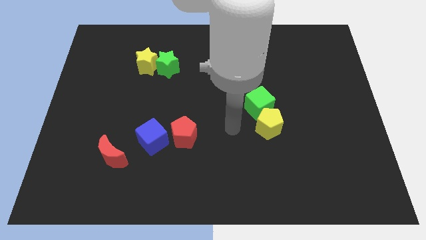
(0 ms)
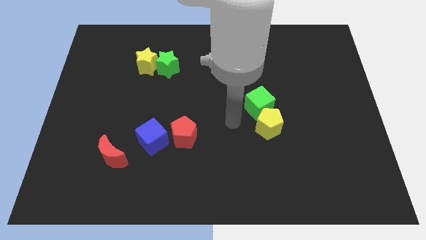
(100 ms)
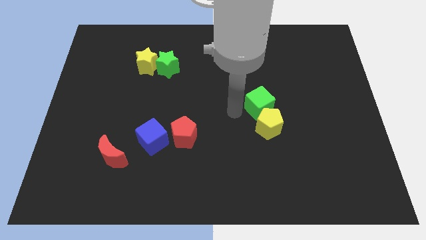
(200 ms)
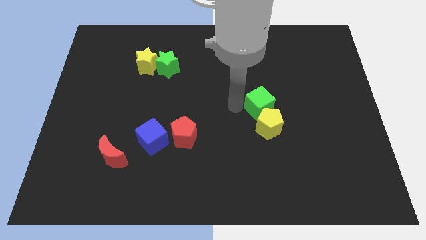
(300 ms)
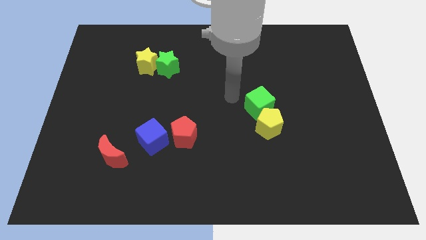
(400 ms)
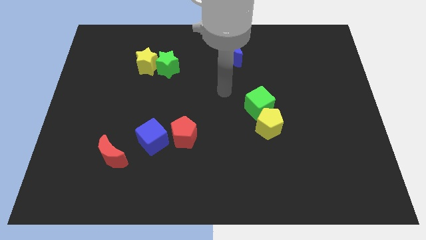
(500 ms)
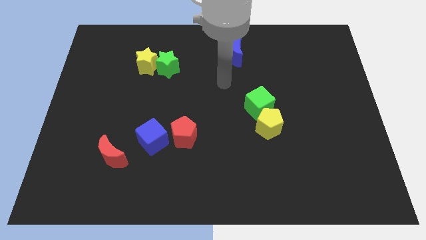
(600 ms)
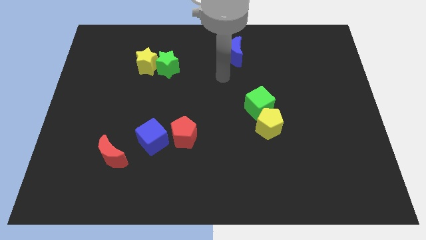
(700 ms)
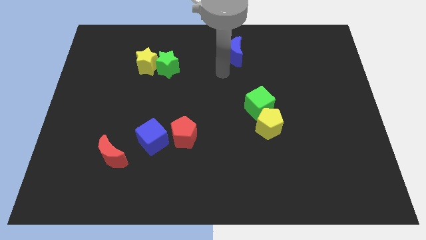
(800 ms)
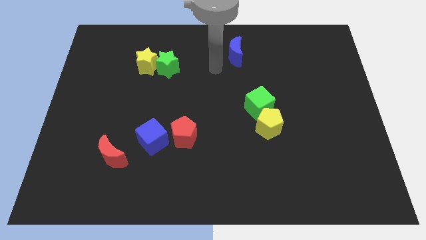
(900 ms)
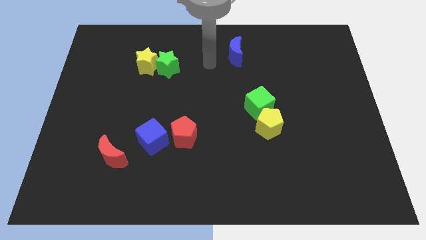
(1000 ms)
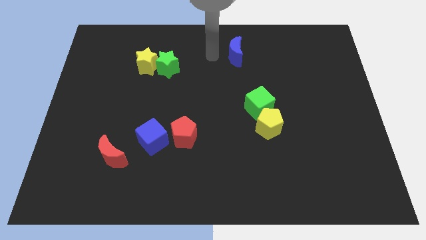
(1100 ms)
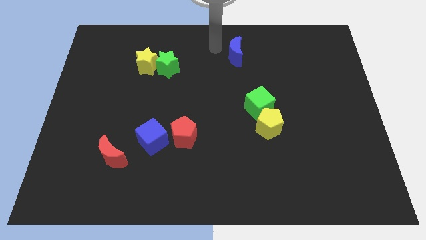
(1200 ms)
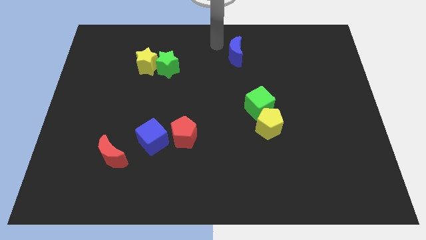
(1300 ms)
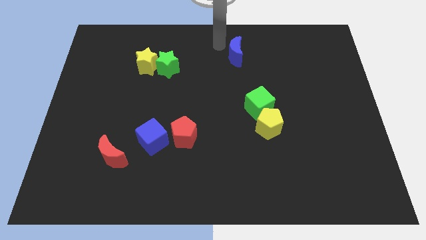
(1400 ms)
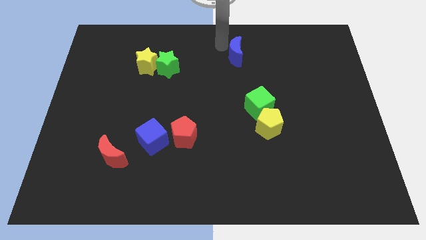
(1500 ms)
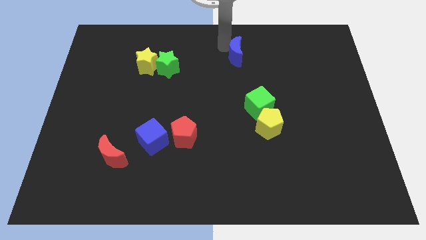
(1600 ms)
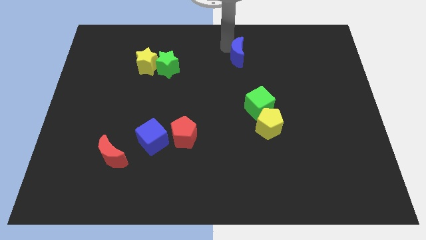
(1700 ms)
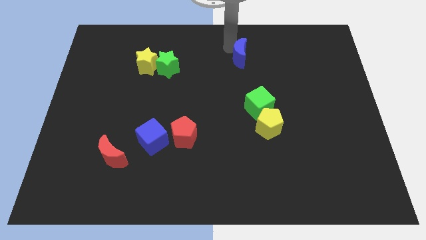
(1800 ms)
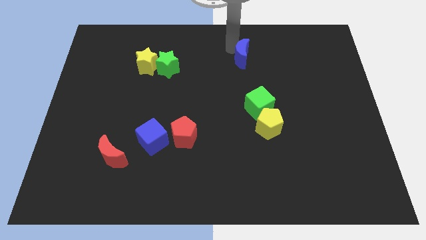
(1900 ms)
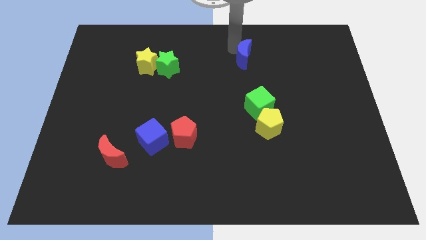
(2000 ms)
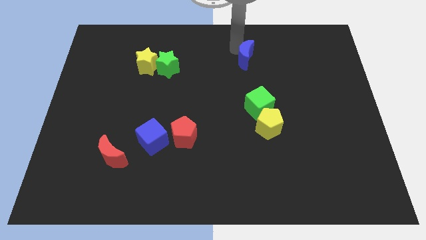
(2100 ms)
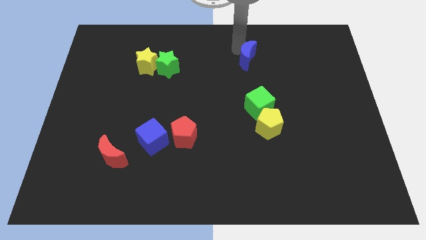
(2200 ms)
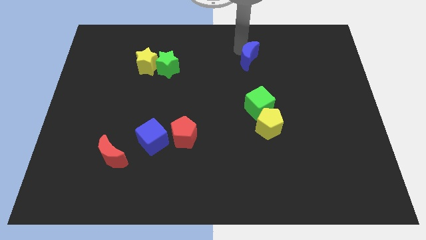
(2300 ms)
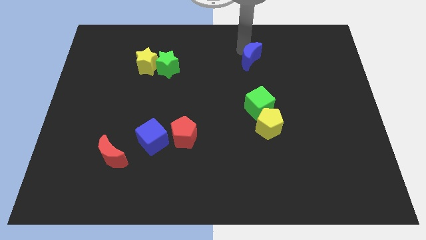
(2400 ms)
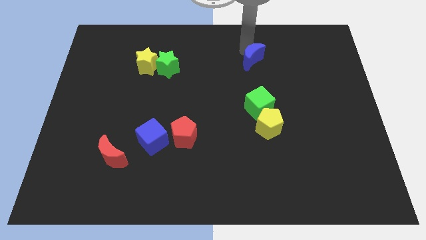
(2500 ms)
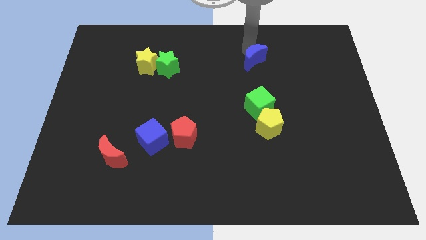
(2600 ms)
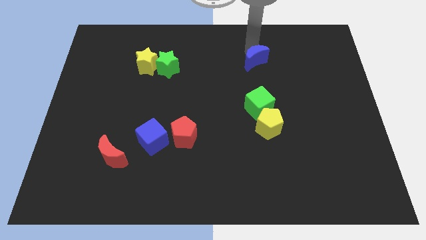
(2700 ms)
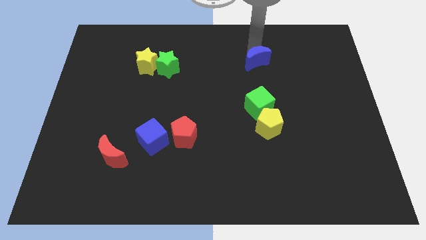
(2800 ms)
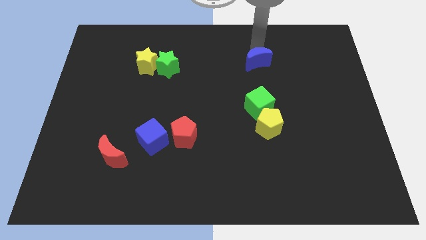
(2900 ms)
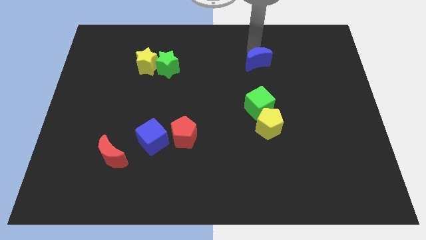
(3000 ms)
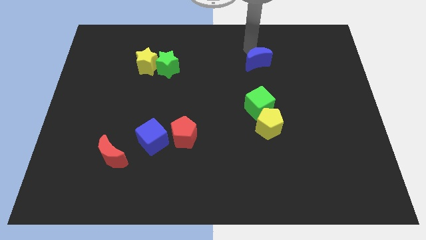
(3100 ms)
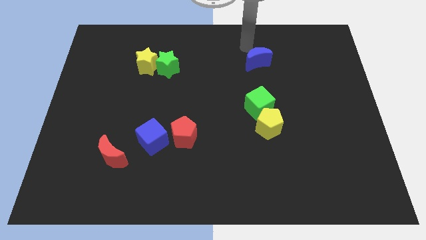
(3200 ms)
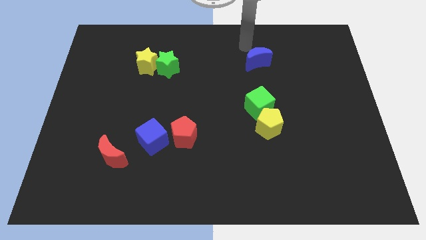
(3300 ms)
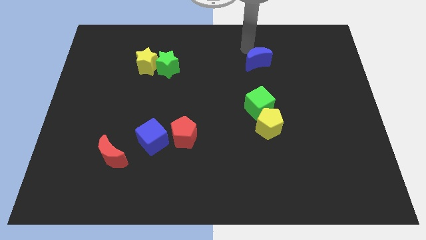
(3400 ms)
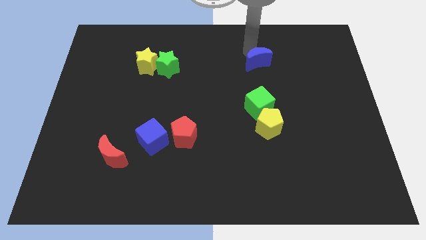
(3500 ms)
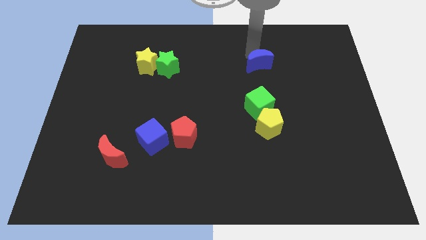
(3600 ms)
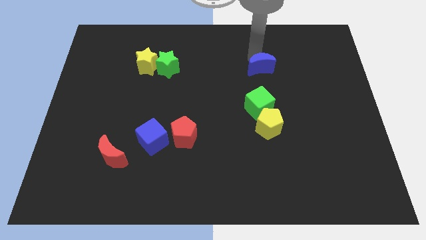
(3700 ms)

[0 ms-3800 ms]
slightly move the blue moon down and then right

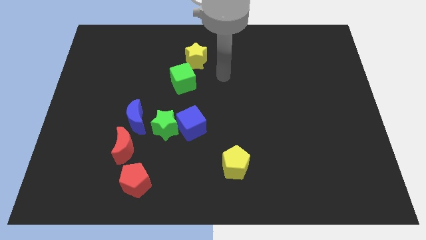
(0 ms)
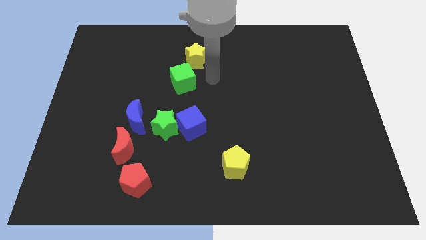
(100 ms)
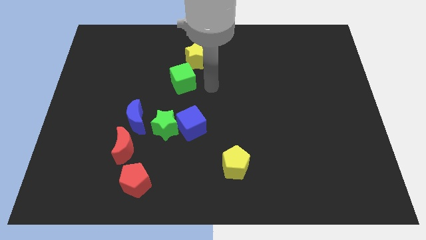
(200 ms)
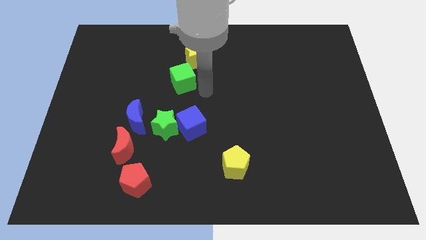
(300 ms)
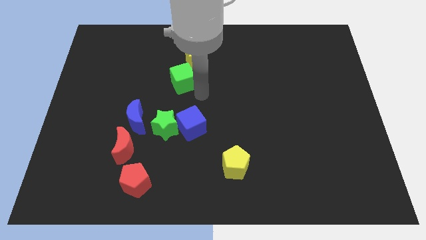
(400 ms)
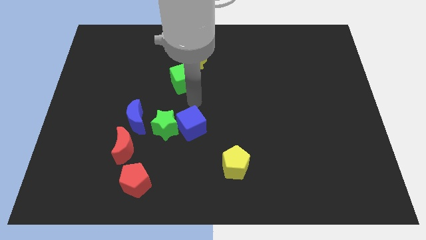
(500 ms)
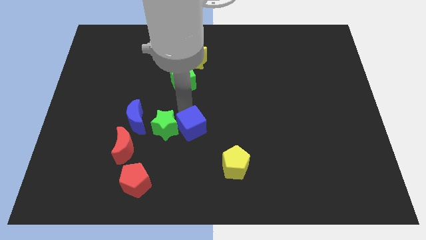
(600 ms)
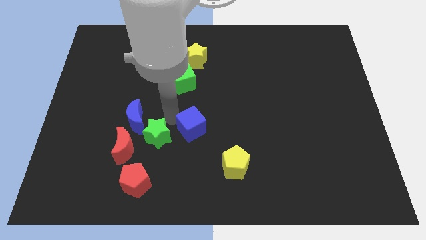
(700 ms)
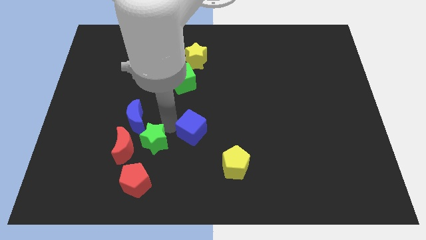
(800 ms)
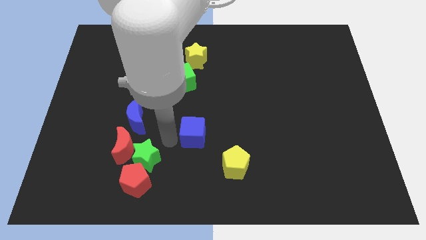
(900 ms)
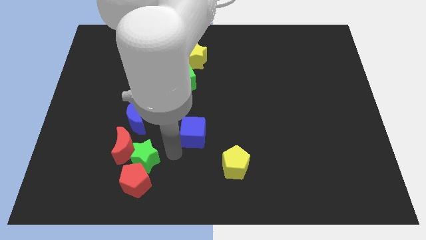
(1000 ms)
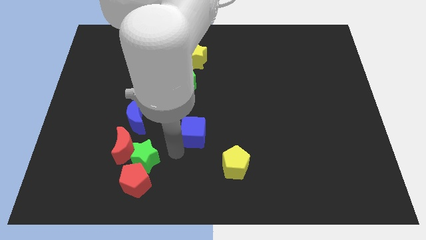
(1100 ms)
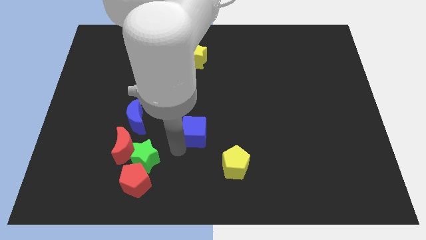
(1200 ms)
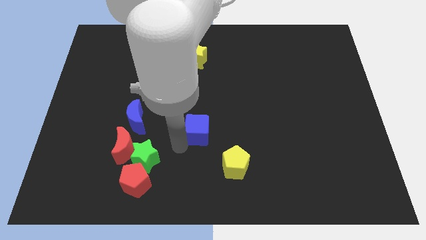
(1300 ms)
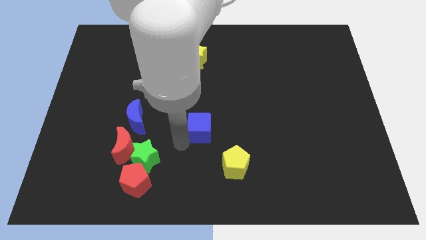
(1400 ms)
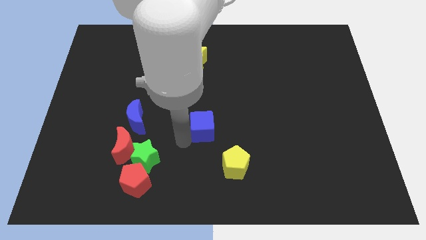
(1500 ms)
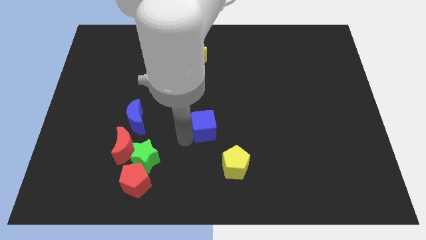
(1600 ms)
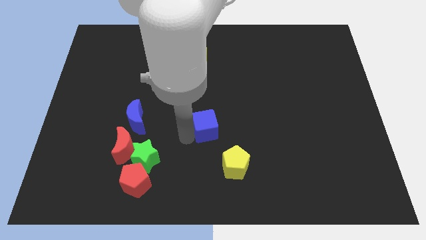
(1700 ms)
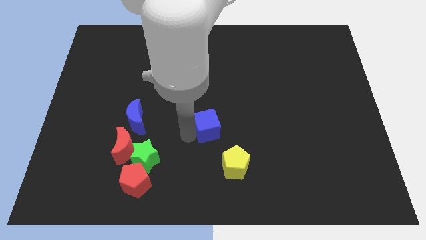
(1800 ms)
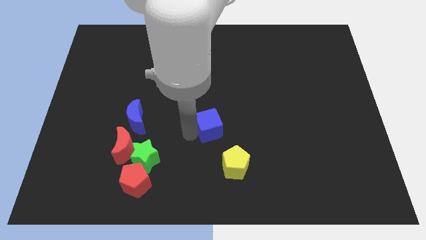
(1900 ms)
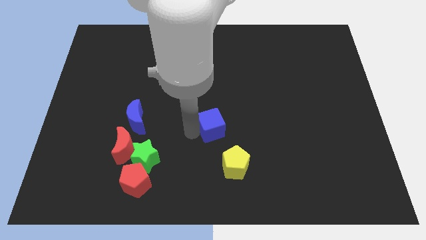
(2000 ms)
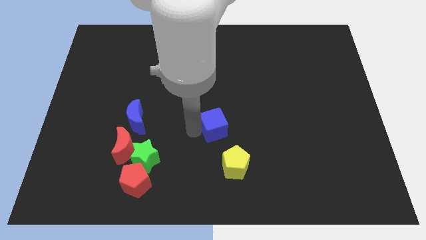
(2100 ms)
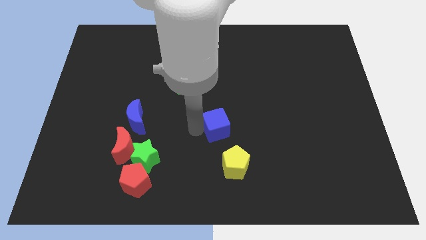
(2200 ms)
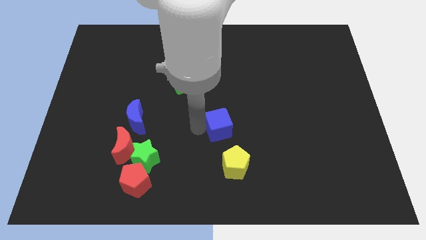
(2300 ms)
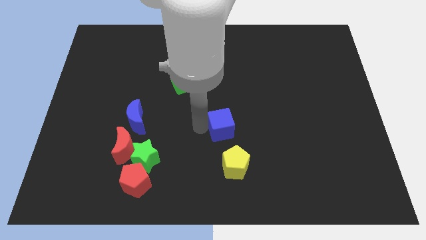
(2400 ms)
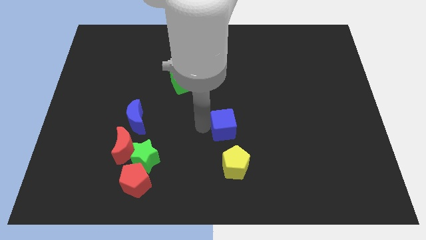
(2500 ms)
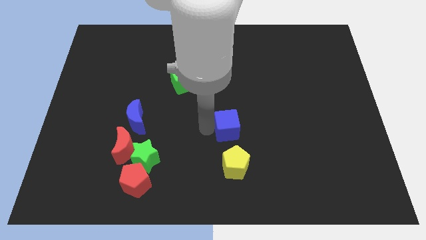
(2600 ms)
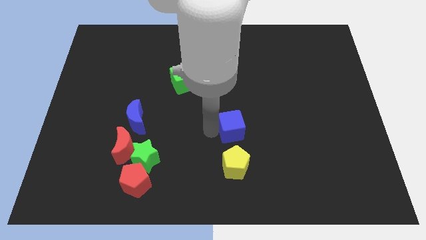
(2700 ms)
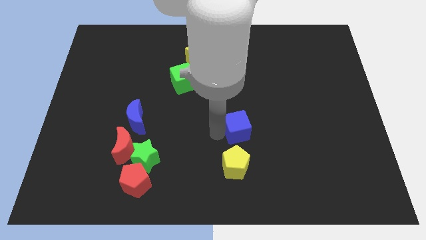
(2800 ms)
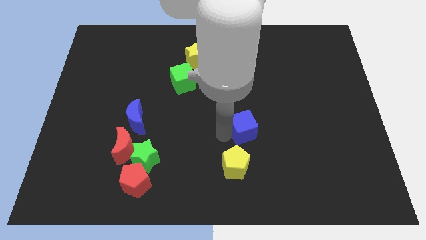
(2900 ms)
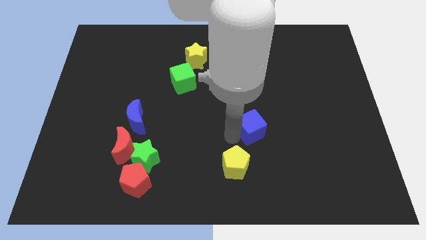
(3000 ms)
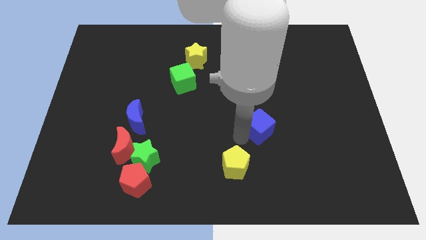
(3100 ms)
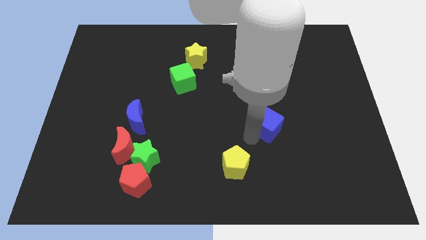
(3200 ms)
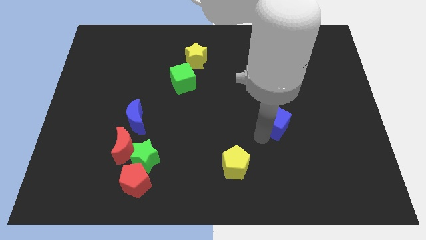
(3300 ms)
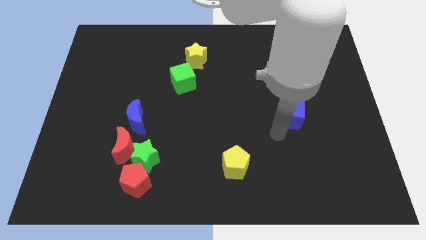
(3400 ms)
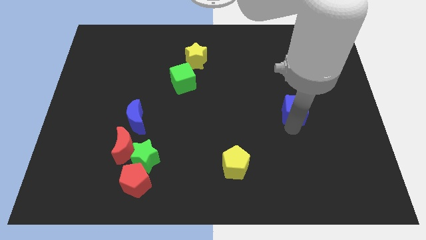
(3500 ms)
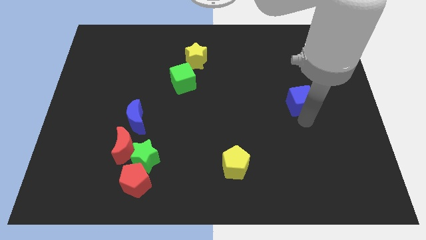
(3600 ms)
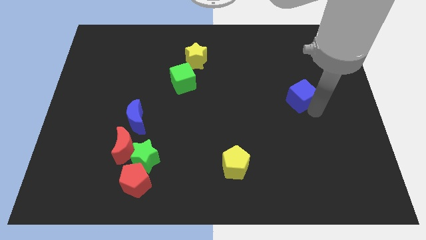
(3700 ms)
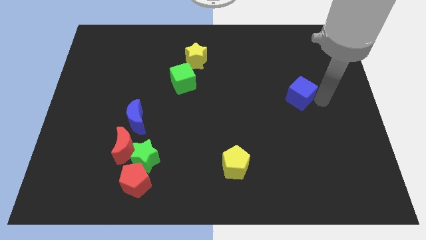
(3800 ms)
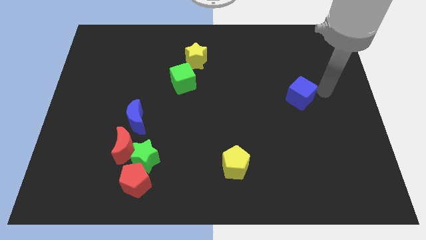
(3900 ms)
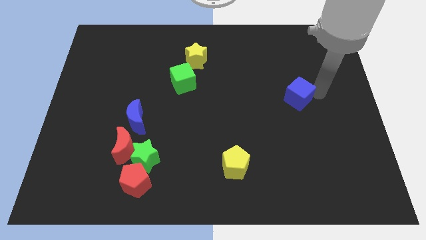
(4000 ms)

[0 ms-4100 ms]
push the blue cube a bit diagonally upwards and to the right
